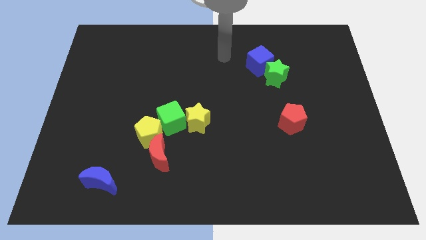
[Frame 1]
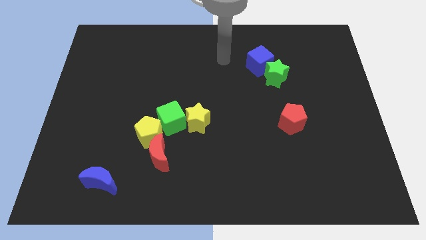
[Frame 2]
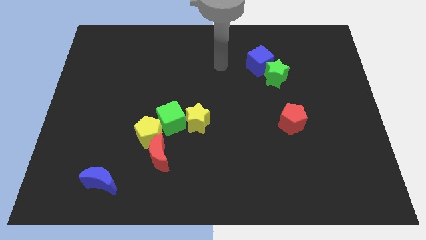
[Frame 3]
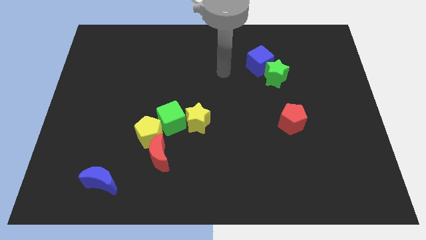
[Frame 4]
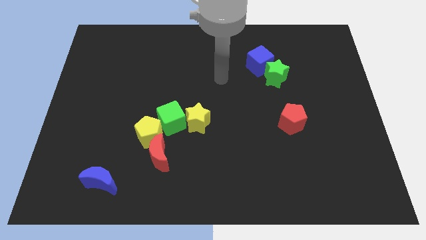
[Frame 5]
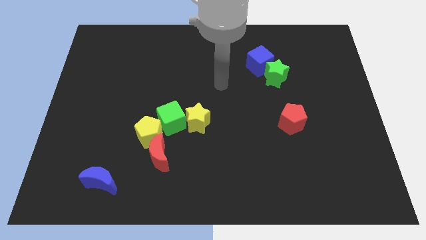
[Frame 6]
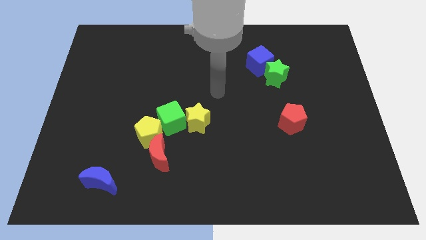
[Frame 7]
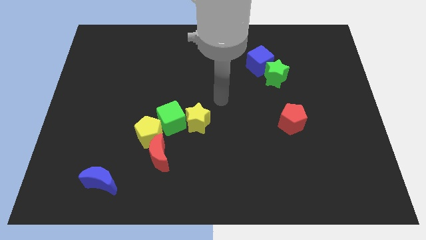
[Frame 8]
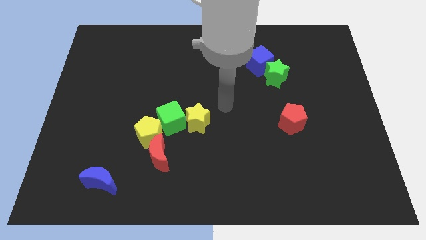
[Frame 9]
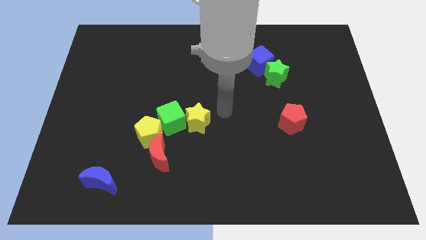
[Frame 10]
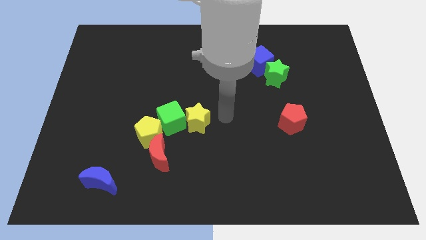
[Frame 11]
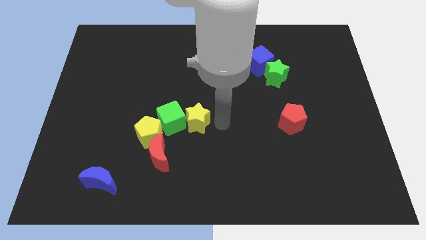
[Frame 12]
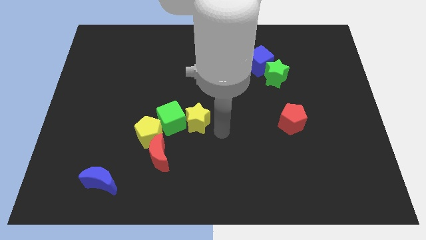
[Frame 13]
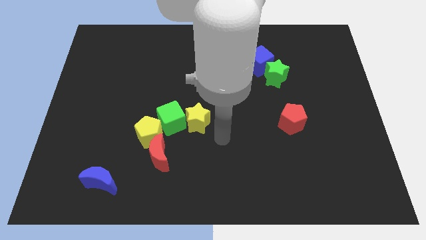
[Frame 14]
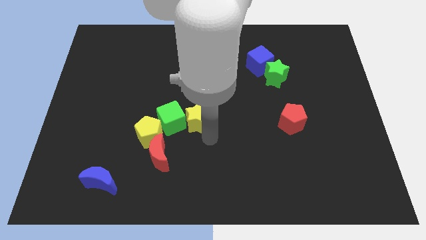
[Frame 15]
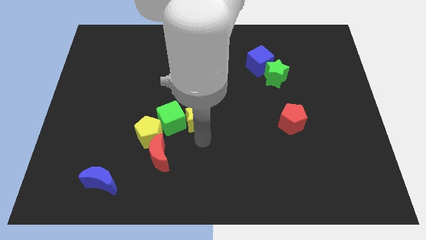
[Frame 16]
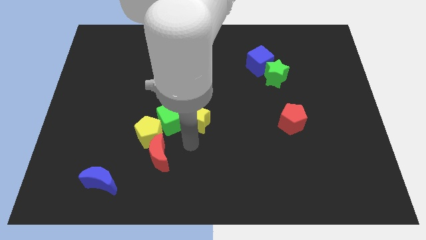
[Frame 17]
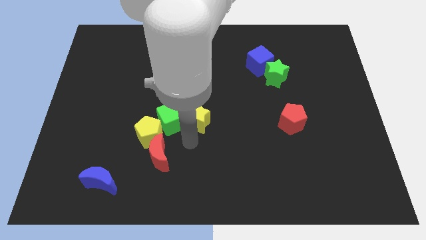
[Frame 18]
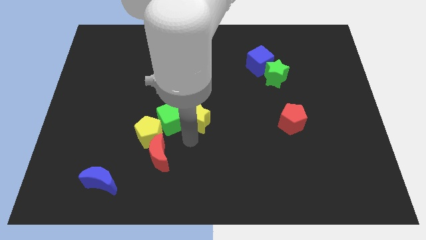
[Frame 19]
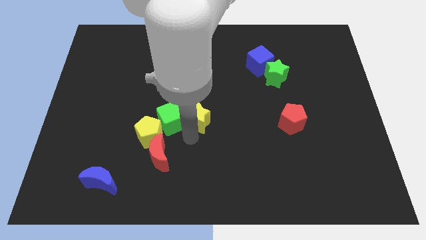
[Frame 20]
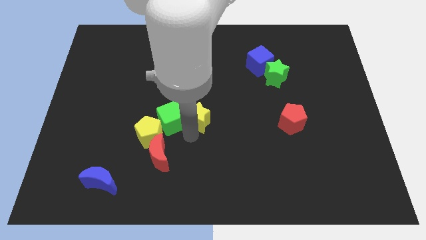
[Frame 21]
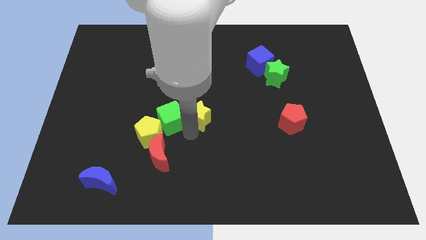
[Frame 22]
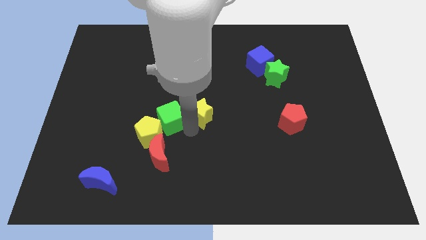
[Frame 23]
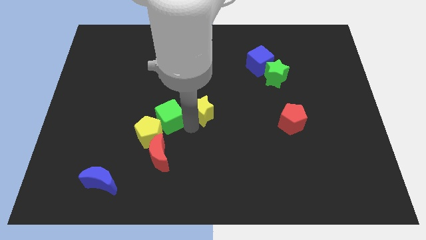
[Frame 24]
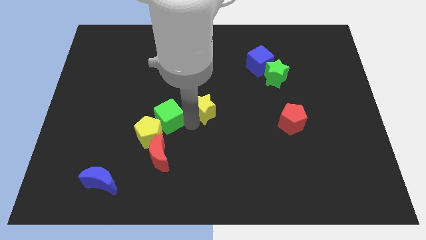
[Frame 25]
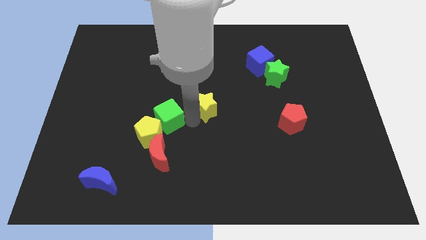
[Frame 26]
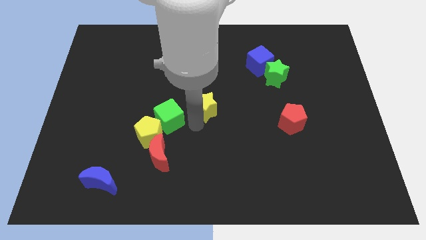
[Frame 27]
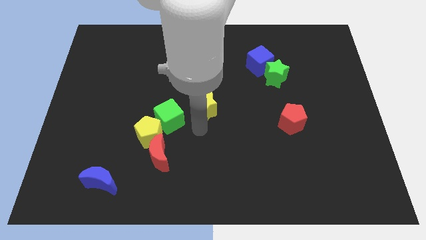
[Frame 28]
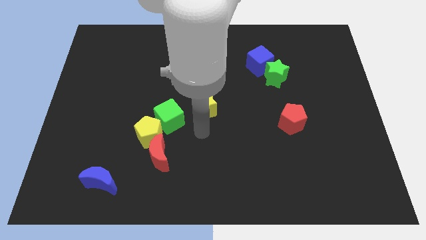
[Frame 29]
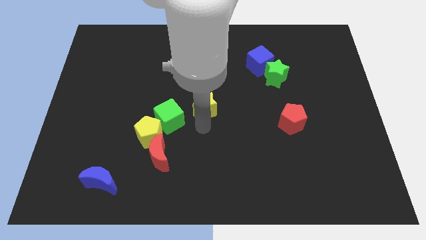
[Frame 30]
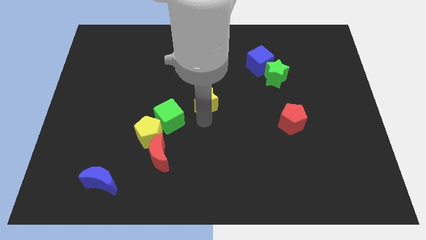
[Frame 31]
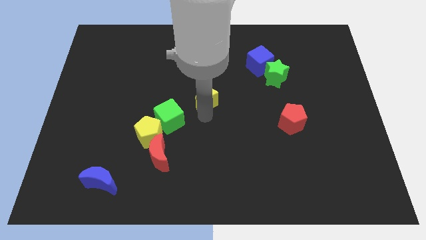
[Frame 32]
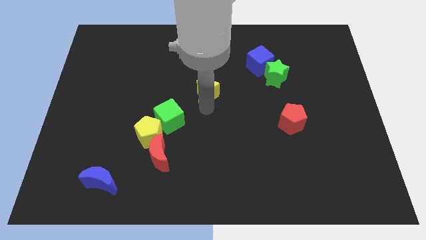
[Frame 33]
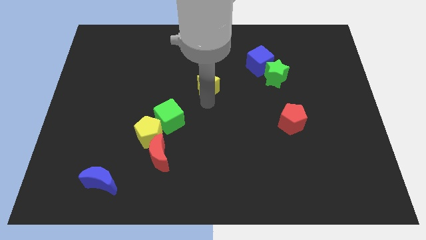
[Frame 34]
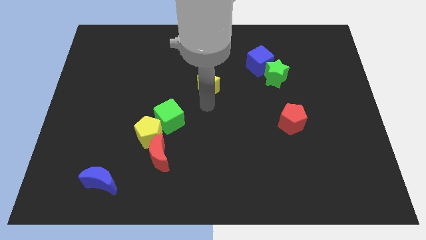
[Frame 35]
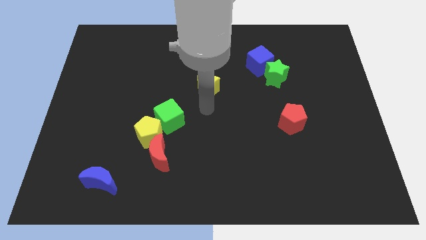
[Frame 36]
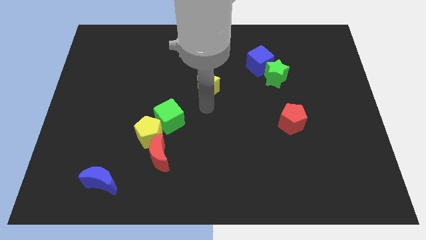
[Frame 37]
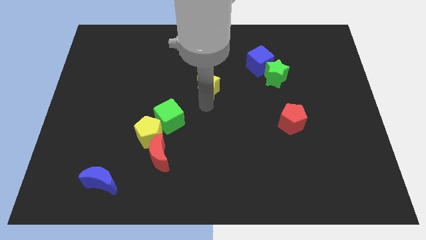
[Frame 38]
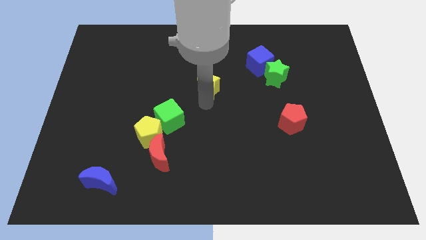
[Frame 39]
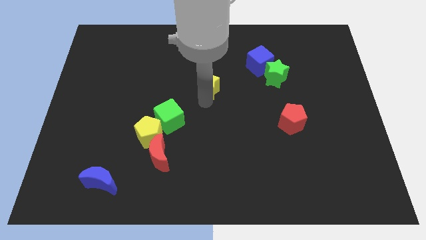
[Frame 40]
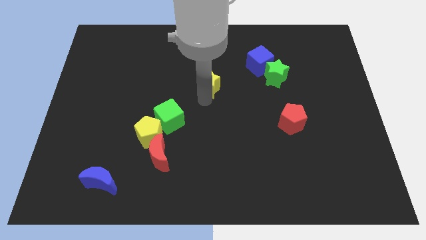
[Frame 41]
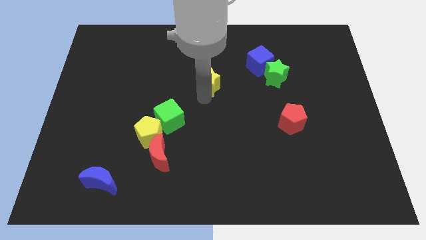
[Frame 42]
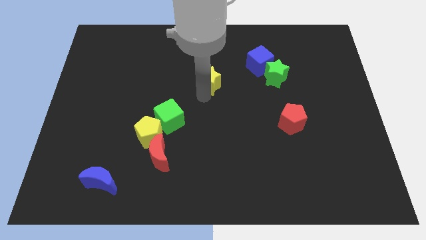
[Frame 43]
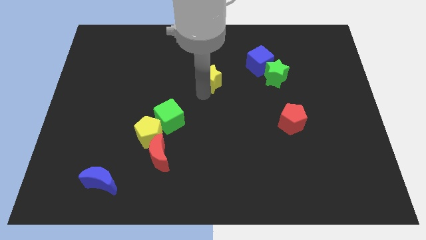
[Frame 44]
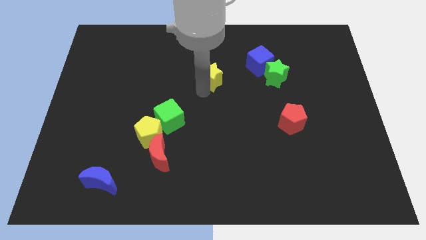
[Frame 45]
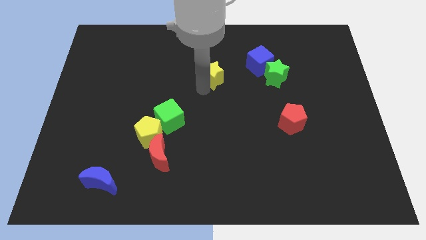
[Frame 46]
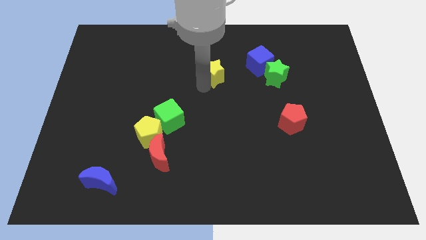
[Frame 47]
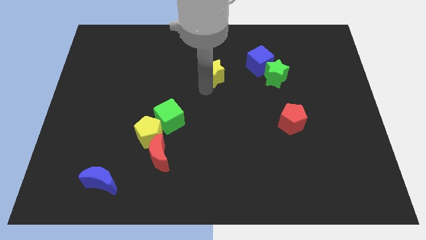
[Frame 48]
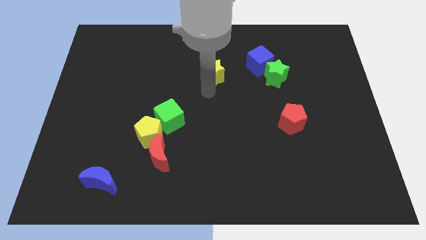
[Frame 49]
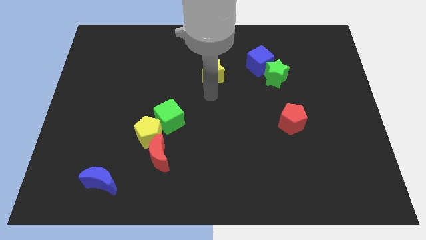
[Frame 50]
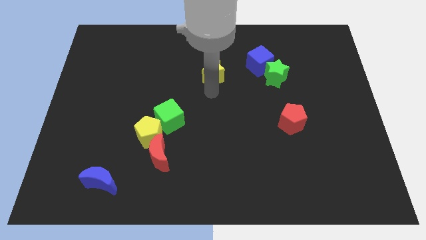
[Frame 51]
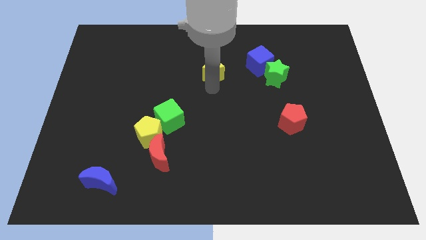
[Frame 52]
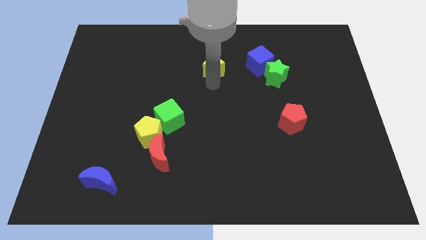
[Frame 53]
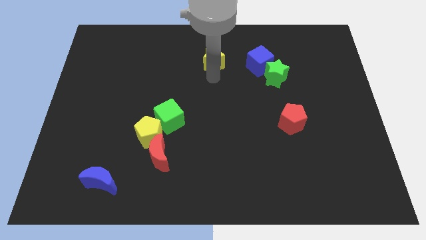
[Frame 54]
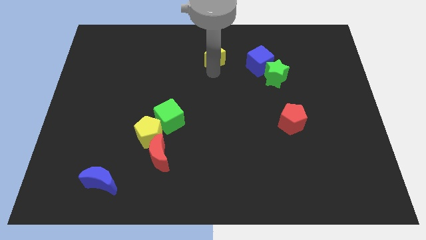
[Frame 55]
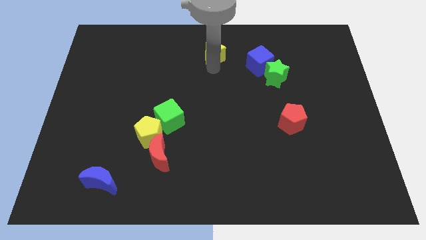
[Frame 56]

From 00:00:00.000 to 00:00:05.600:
slide the yellow star to the towards your base
